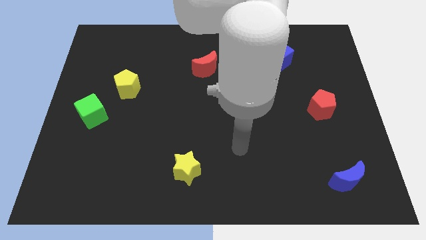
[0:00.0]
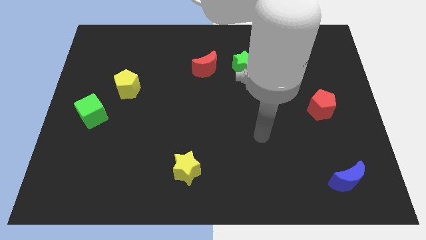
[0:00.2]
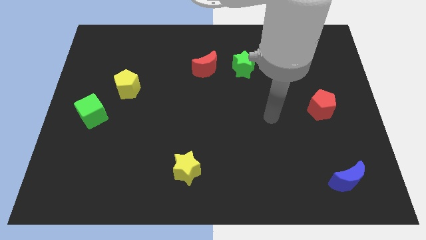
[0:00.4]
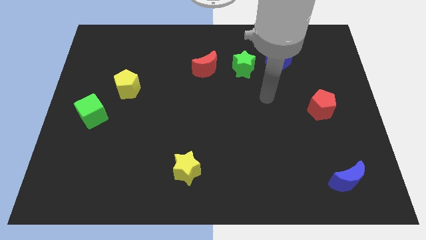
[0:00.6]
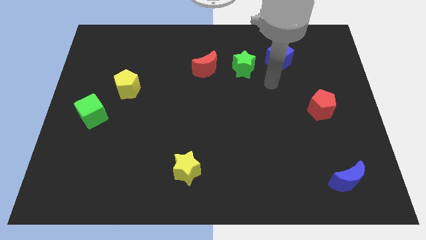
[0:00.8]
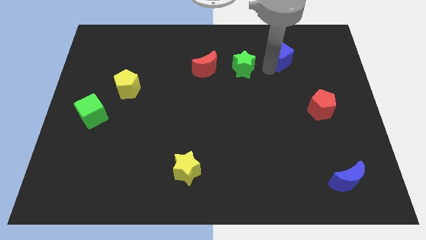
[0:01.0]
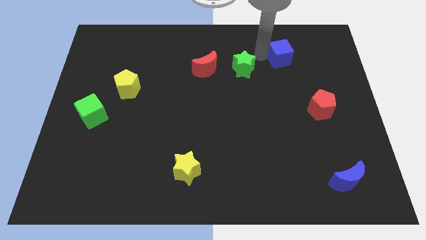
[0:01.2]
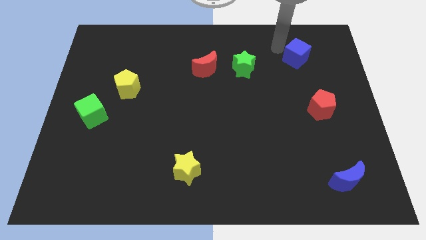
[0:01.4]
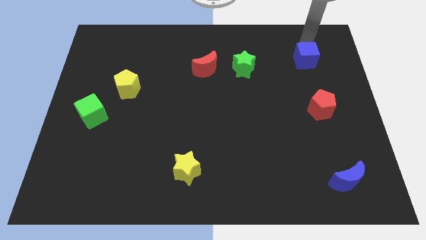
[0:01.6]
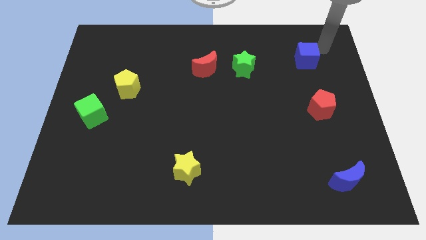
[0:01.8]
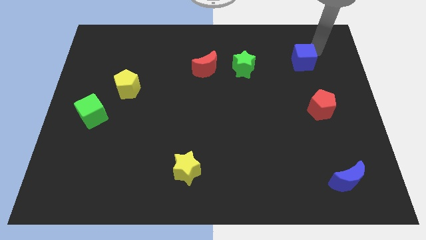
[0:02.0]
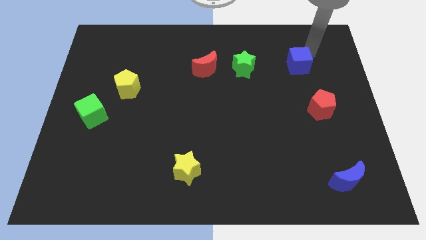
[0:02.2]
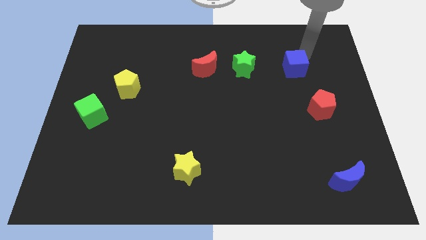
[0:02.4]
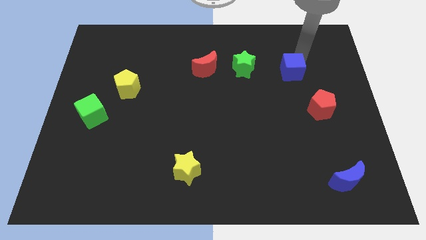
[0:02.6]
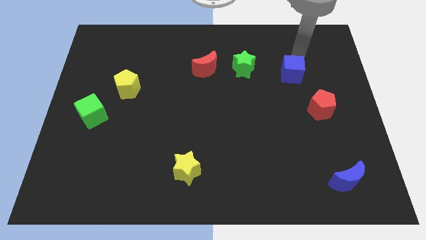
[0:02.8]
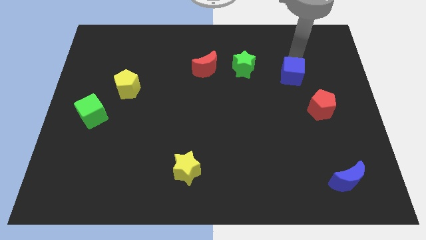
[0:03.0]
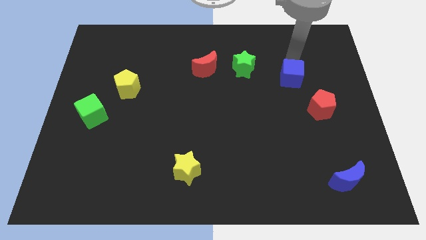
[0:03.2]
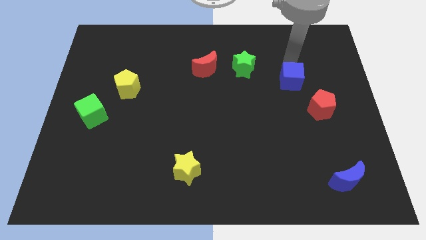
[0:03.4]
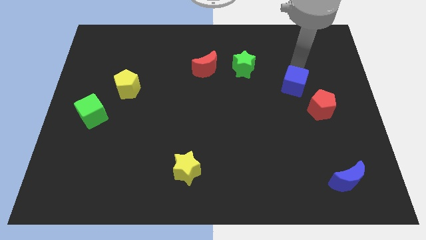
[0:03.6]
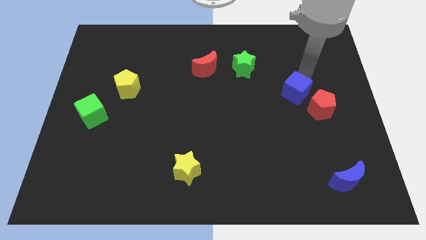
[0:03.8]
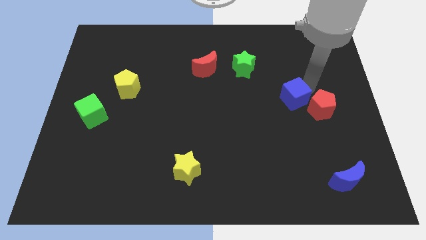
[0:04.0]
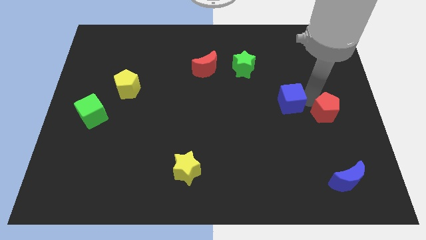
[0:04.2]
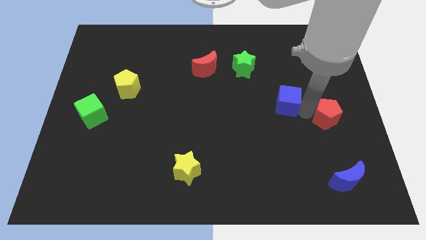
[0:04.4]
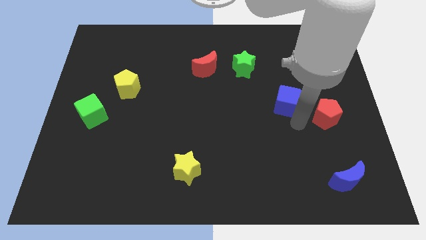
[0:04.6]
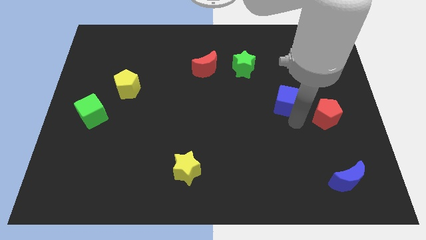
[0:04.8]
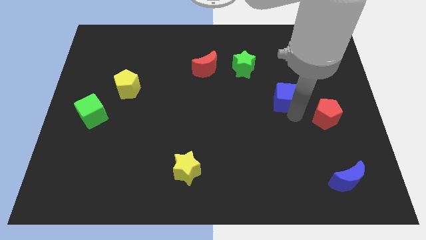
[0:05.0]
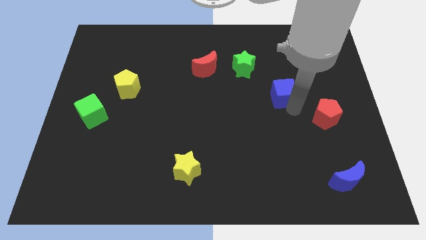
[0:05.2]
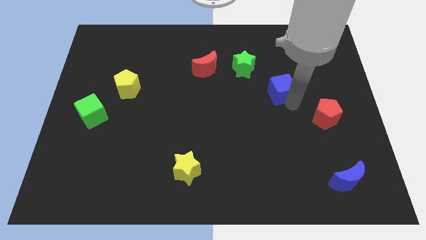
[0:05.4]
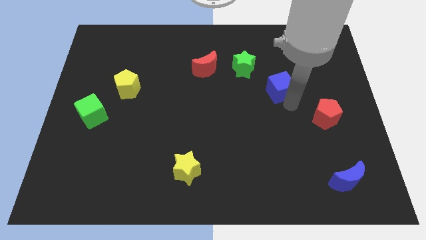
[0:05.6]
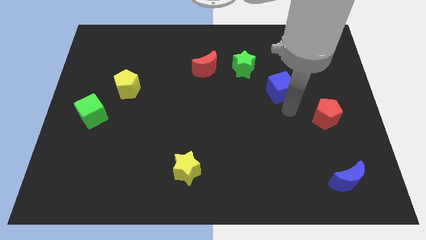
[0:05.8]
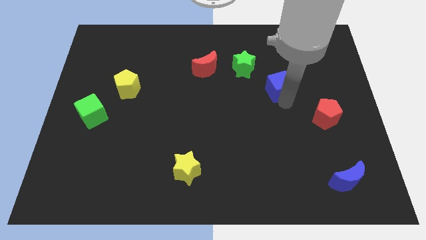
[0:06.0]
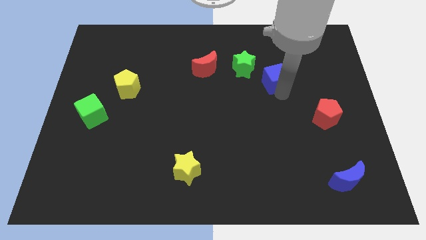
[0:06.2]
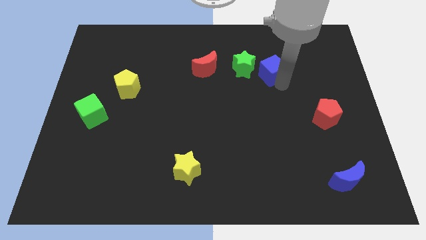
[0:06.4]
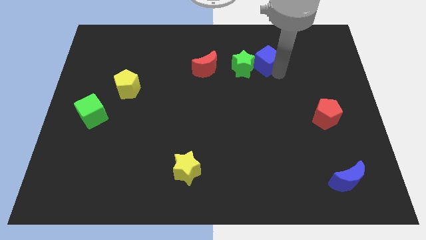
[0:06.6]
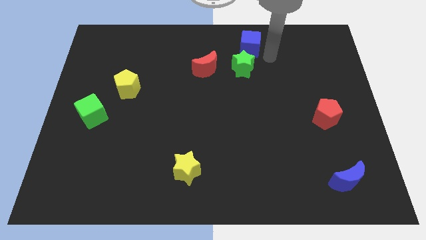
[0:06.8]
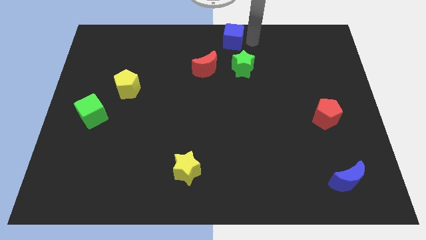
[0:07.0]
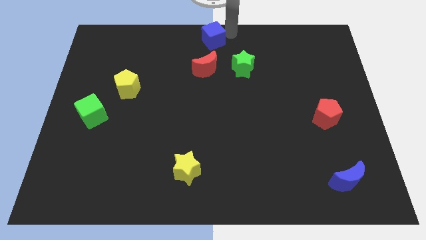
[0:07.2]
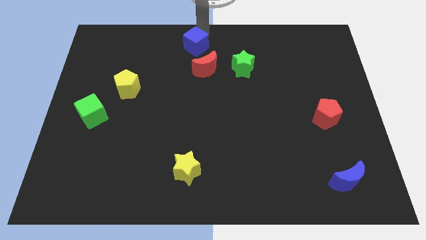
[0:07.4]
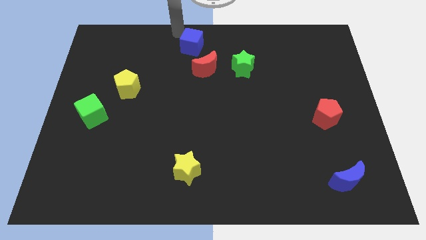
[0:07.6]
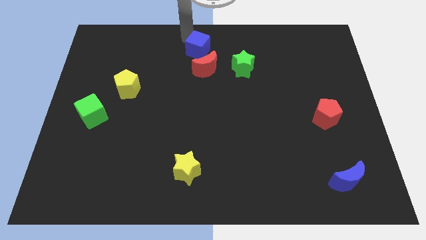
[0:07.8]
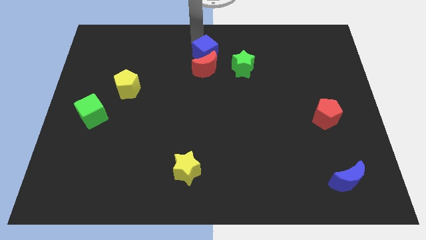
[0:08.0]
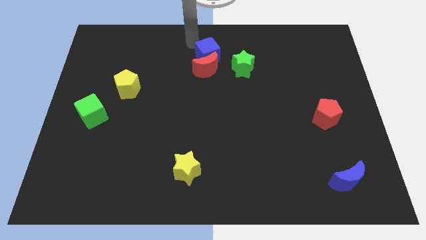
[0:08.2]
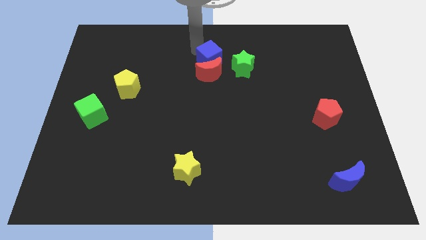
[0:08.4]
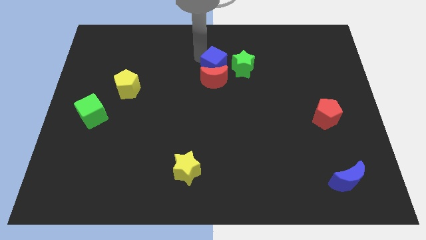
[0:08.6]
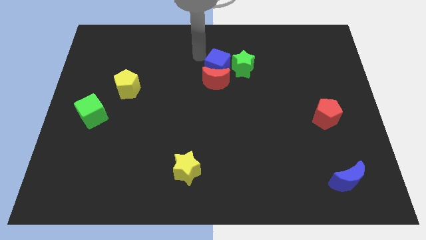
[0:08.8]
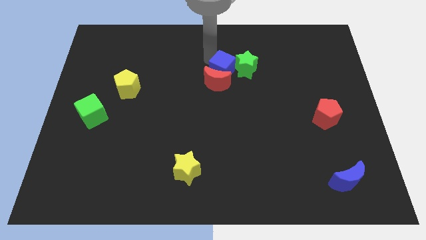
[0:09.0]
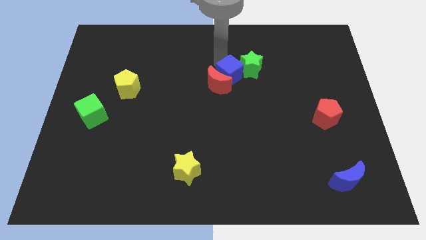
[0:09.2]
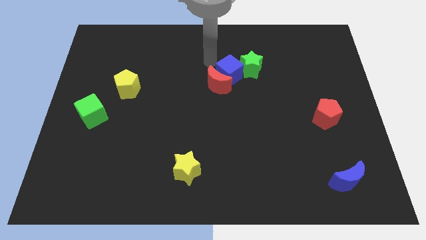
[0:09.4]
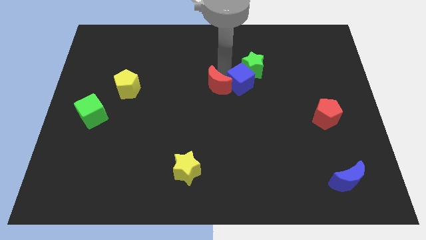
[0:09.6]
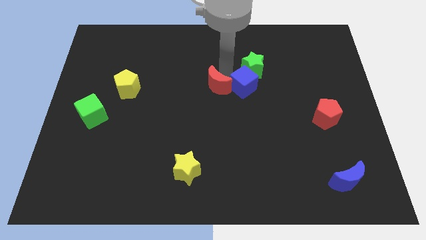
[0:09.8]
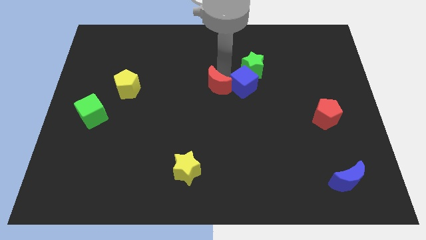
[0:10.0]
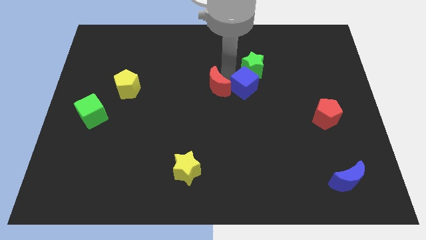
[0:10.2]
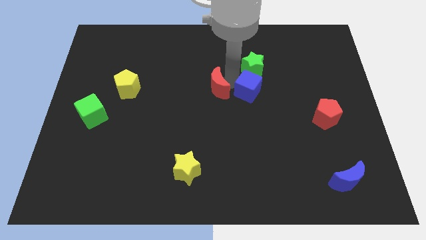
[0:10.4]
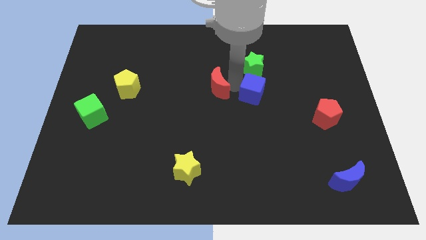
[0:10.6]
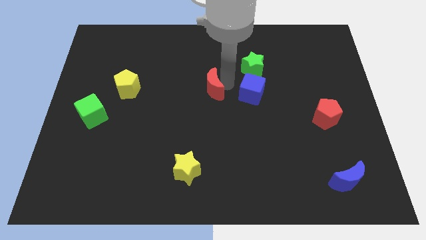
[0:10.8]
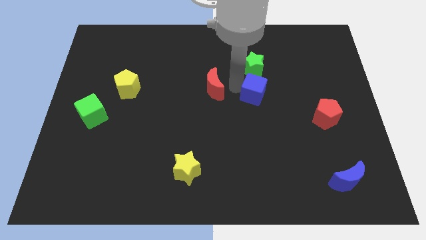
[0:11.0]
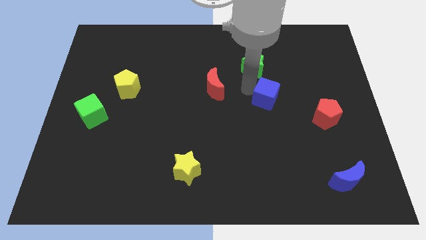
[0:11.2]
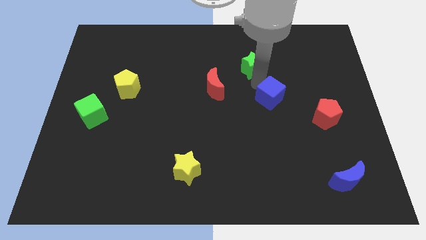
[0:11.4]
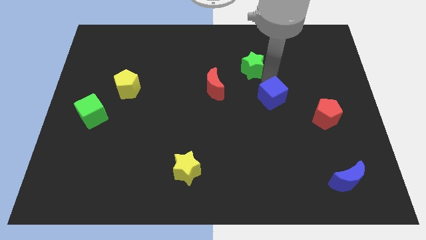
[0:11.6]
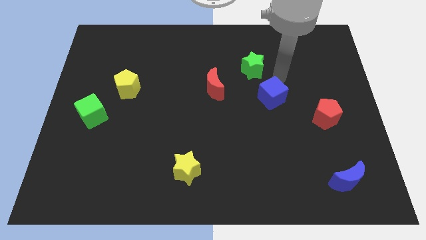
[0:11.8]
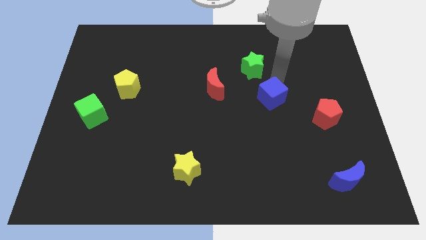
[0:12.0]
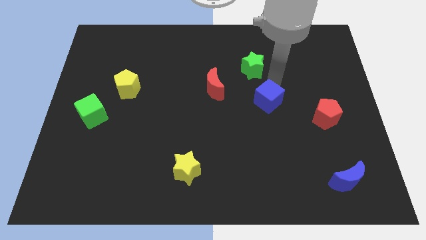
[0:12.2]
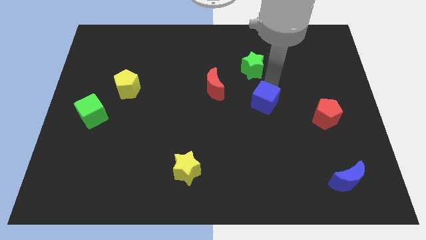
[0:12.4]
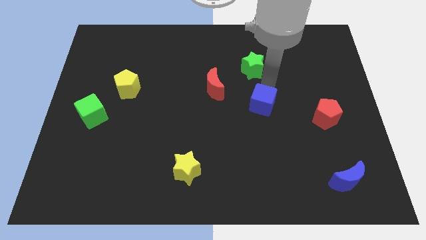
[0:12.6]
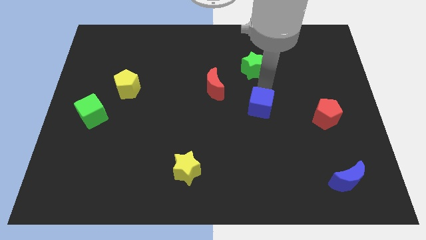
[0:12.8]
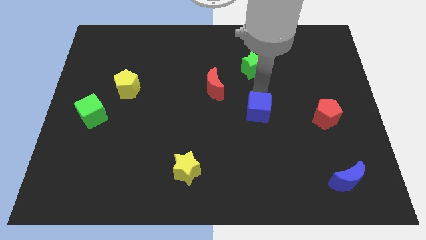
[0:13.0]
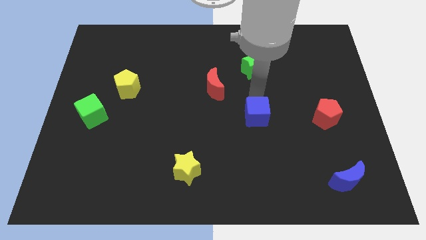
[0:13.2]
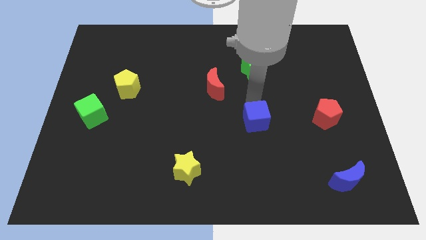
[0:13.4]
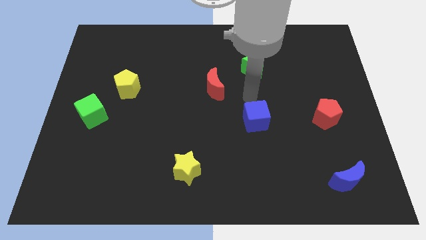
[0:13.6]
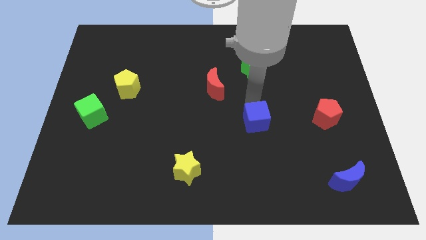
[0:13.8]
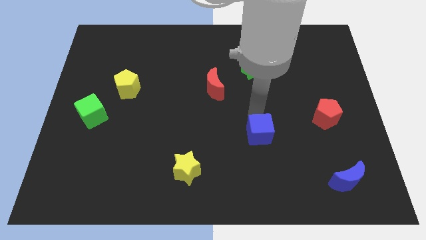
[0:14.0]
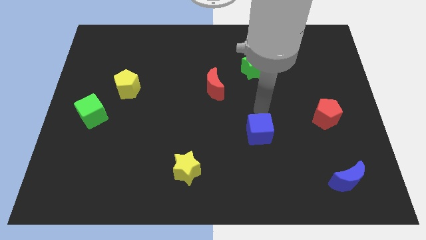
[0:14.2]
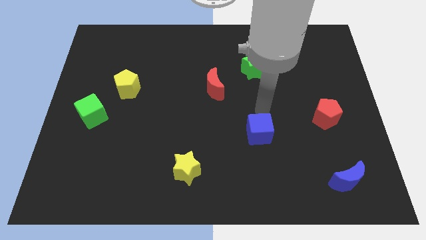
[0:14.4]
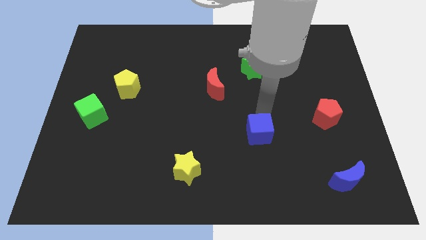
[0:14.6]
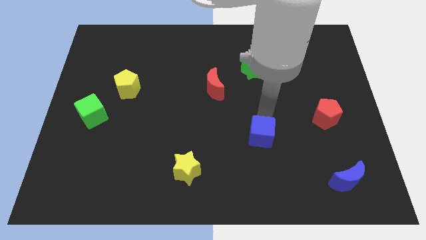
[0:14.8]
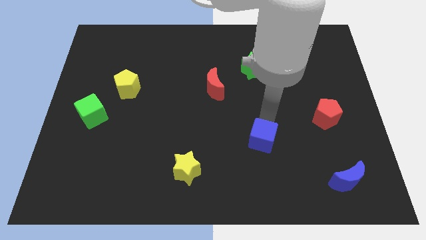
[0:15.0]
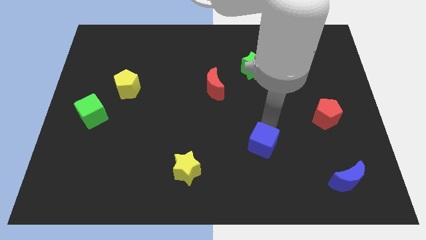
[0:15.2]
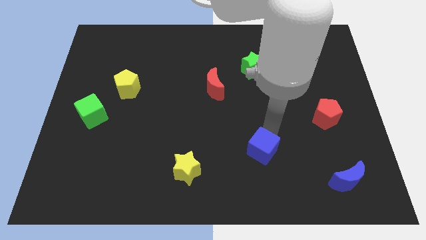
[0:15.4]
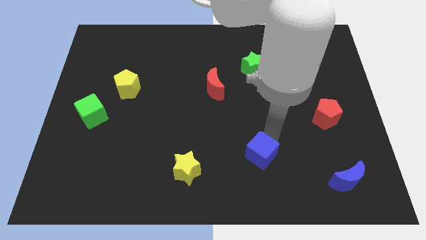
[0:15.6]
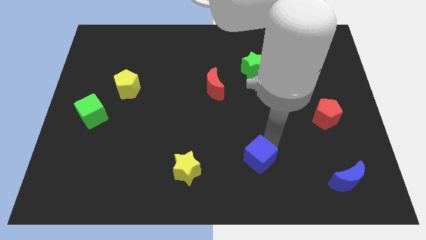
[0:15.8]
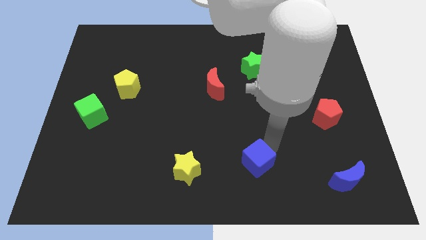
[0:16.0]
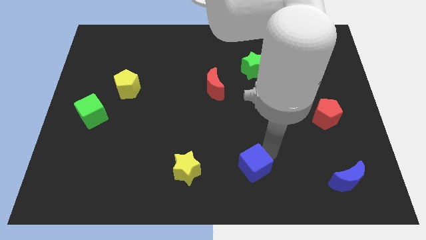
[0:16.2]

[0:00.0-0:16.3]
slide the blue cube to the bottom
